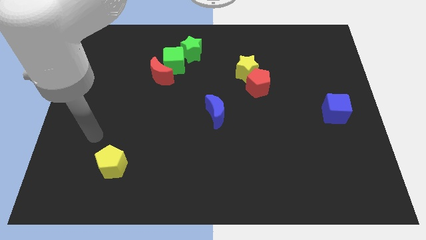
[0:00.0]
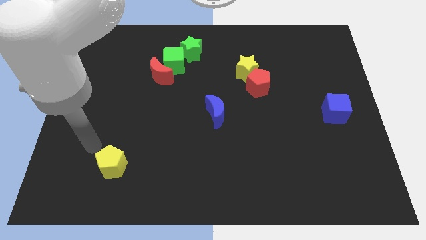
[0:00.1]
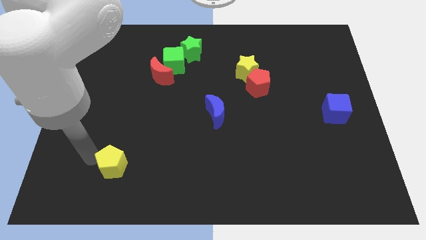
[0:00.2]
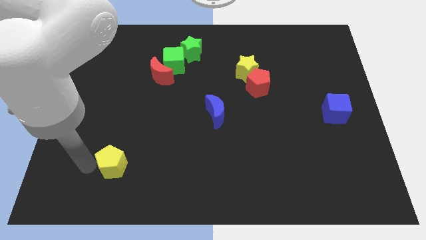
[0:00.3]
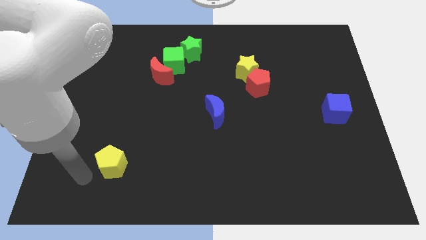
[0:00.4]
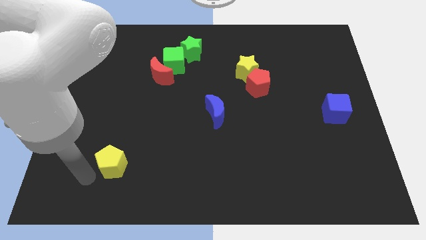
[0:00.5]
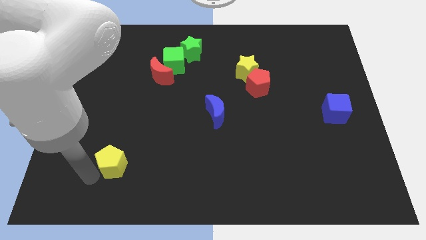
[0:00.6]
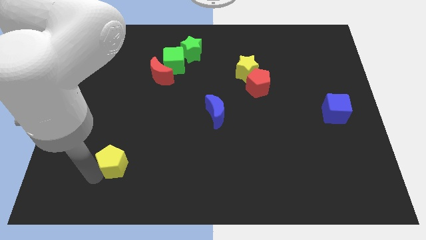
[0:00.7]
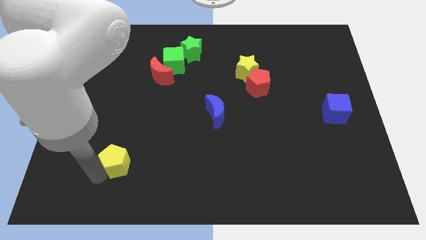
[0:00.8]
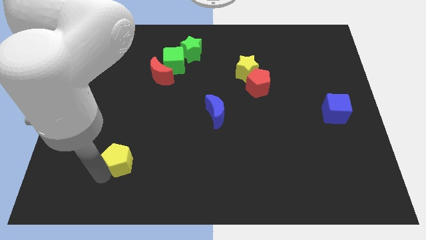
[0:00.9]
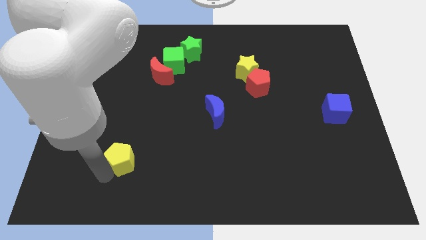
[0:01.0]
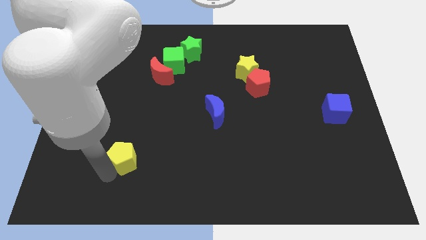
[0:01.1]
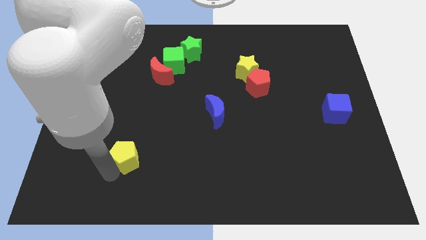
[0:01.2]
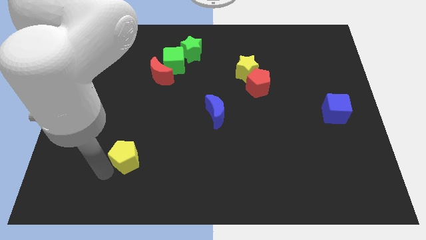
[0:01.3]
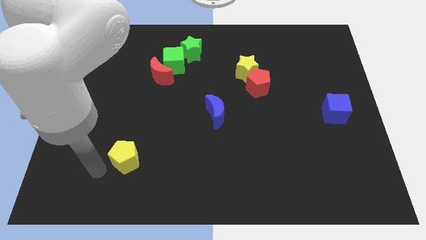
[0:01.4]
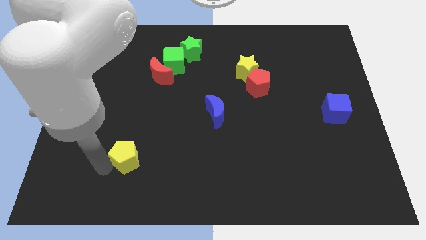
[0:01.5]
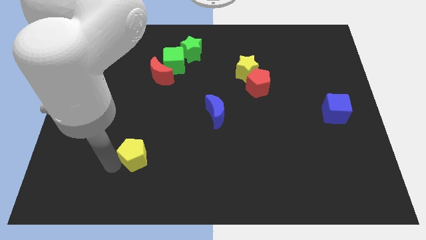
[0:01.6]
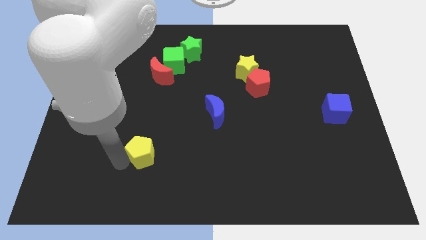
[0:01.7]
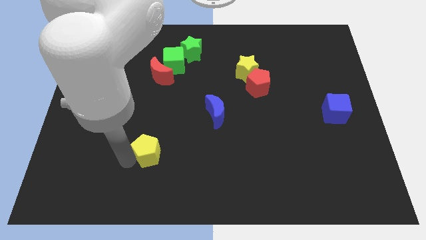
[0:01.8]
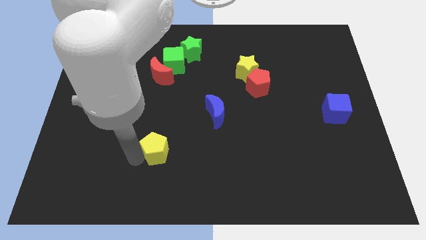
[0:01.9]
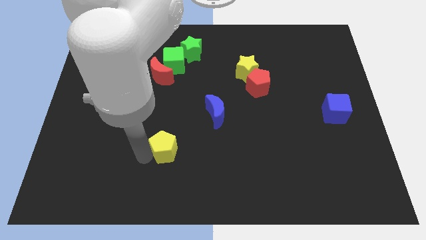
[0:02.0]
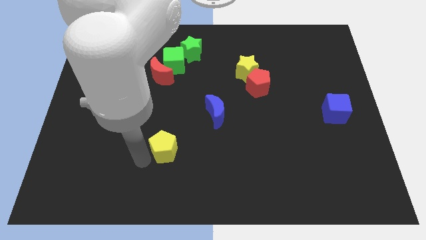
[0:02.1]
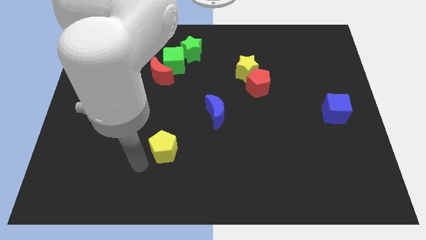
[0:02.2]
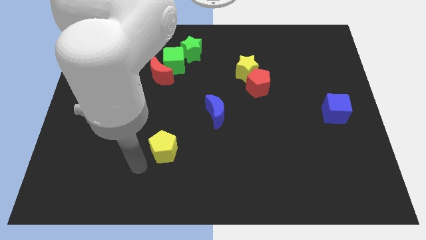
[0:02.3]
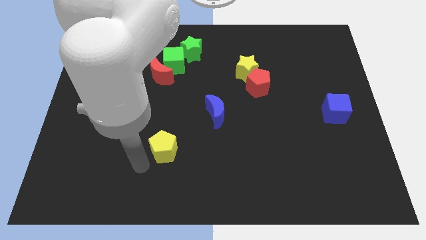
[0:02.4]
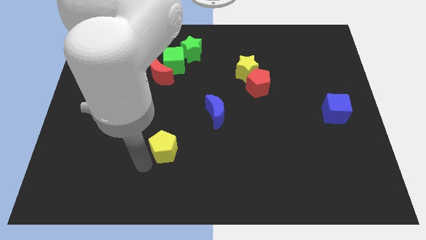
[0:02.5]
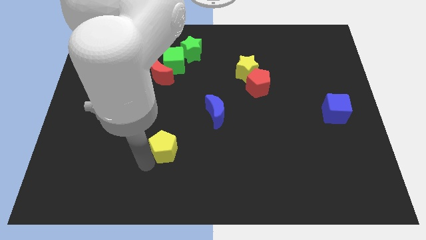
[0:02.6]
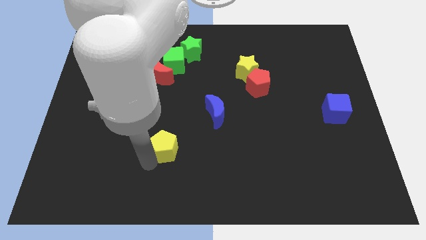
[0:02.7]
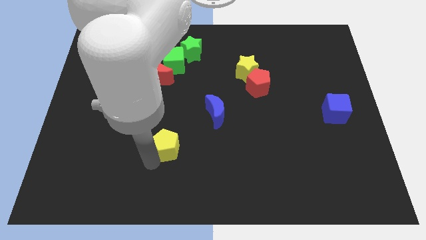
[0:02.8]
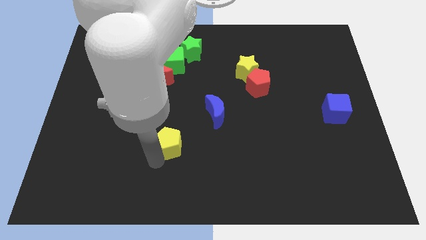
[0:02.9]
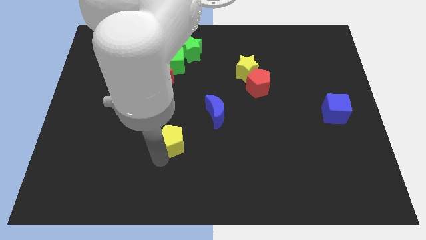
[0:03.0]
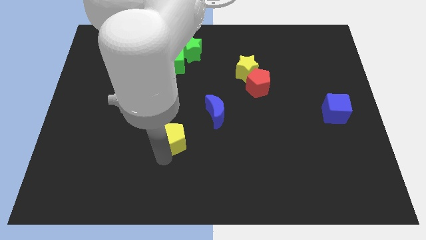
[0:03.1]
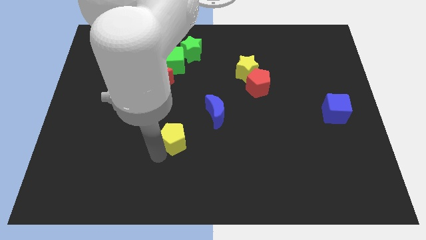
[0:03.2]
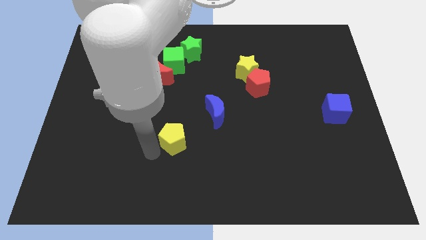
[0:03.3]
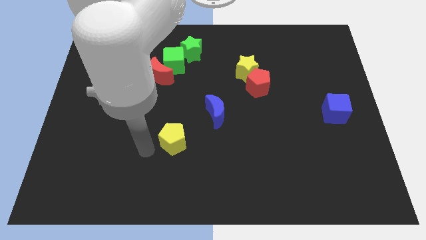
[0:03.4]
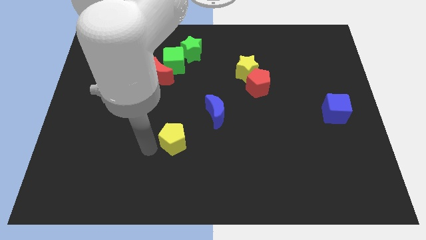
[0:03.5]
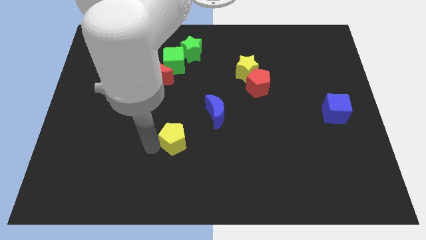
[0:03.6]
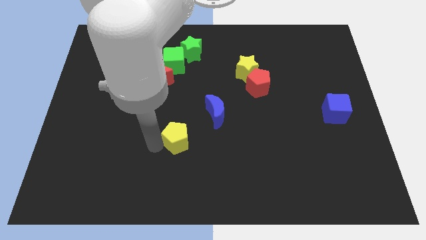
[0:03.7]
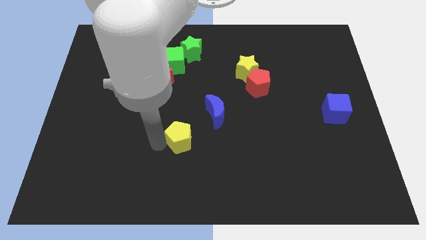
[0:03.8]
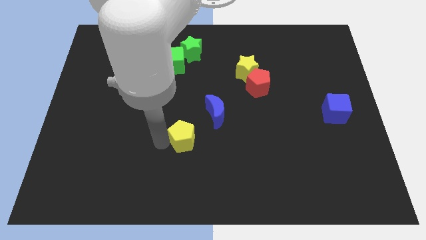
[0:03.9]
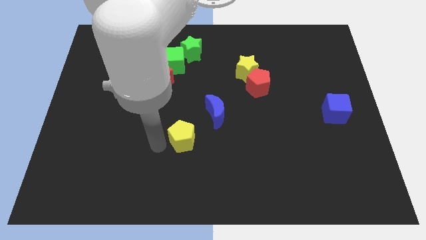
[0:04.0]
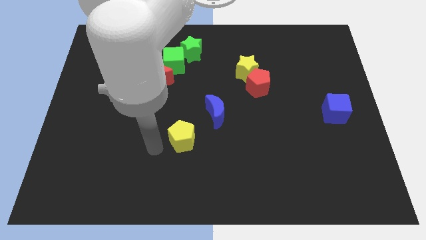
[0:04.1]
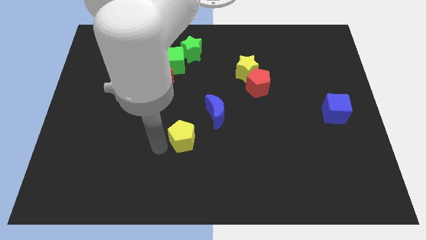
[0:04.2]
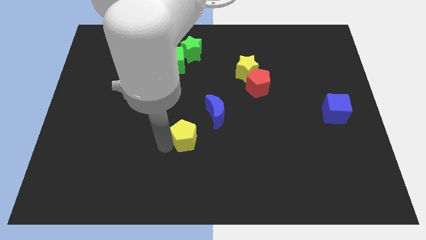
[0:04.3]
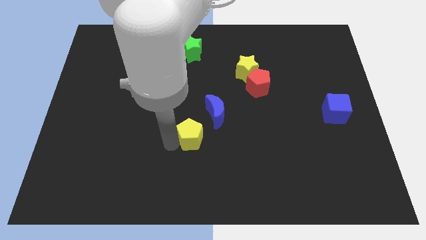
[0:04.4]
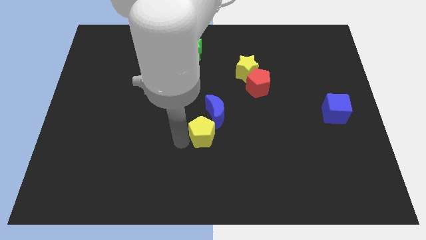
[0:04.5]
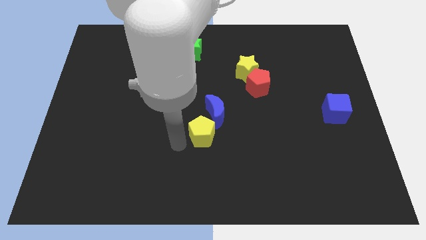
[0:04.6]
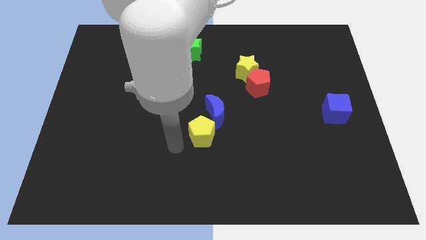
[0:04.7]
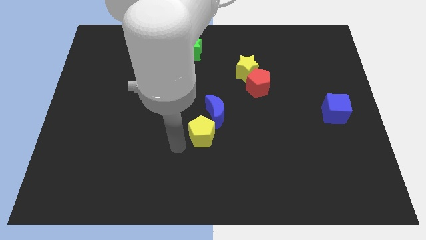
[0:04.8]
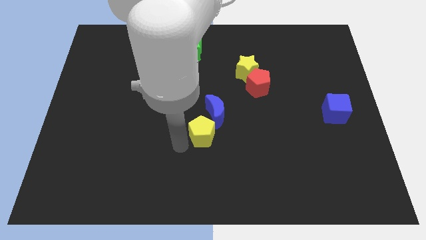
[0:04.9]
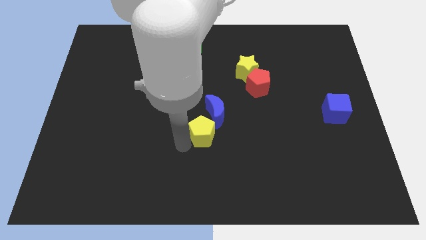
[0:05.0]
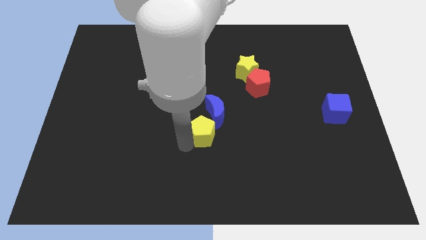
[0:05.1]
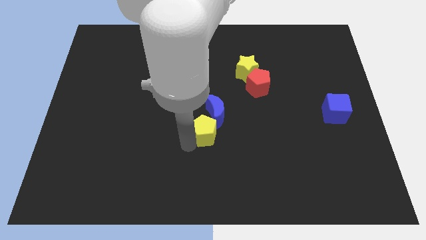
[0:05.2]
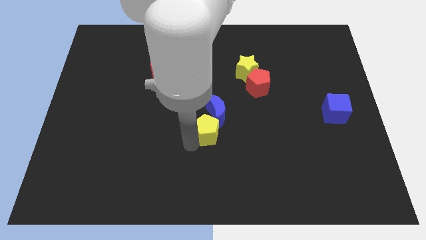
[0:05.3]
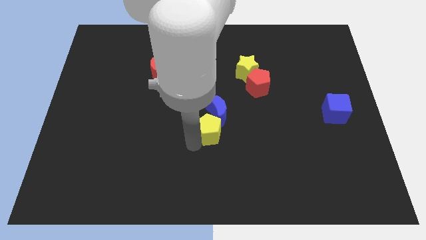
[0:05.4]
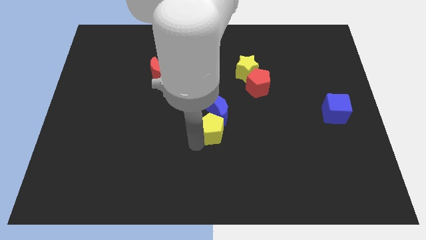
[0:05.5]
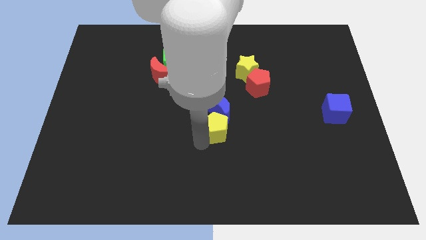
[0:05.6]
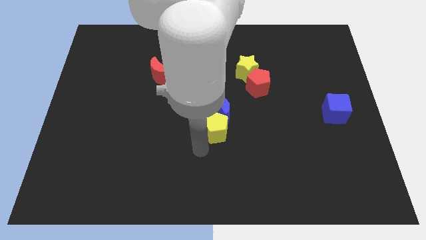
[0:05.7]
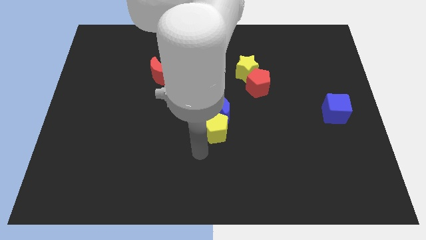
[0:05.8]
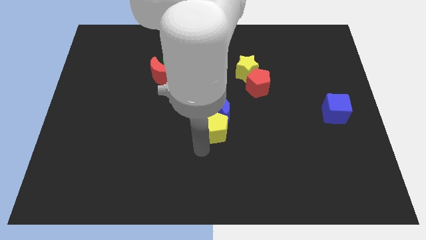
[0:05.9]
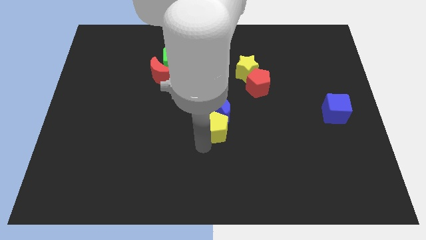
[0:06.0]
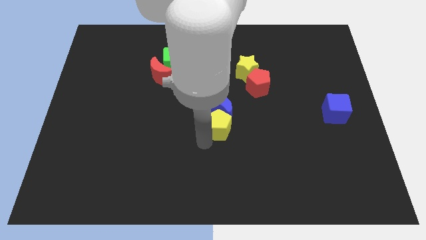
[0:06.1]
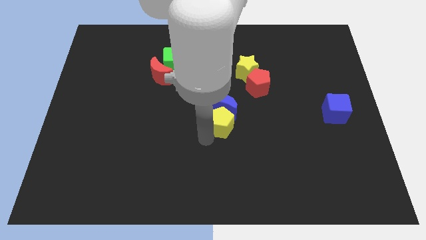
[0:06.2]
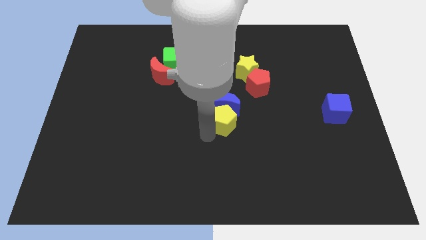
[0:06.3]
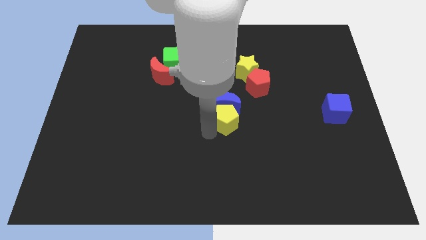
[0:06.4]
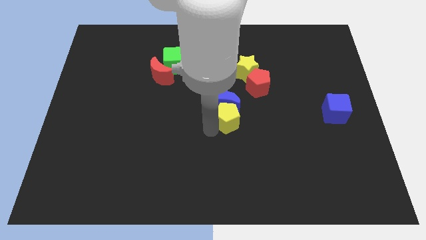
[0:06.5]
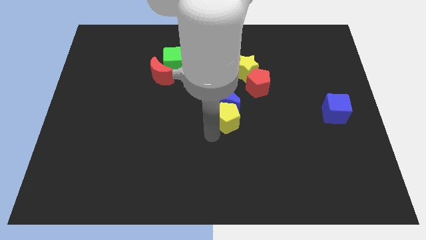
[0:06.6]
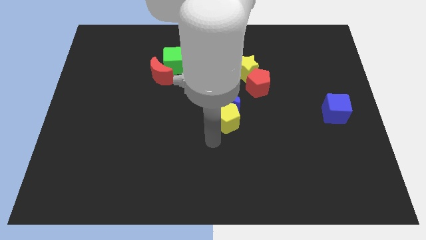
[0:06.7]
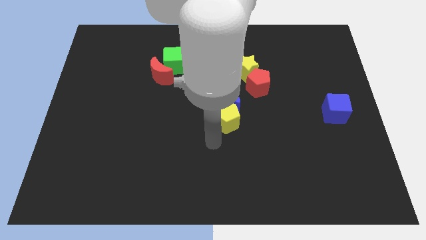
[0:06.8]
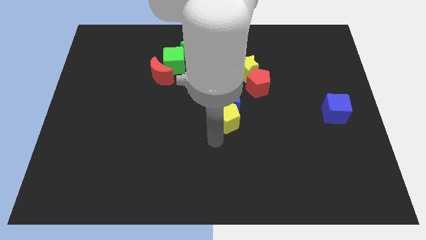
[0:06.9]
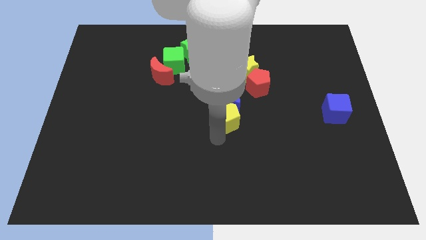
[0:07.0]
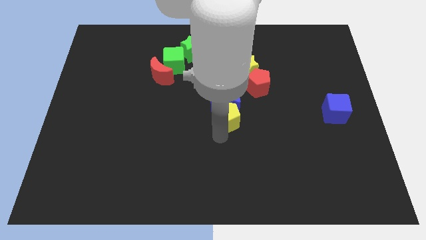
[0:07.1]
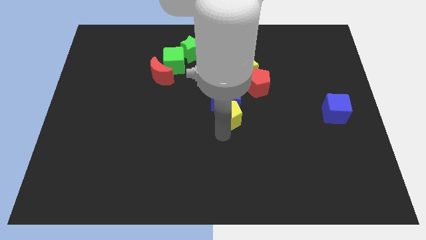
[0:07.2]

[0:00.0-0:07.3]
push the yellow pentagon diagonally down and to the left of the red pentagon
